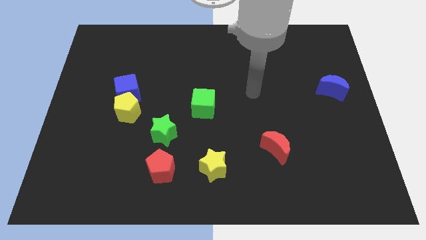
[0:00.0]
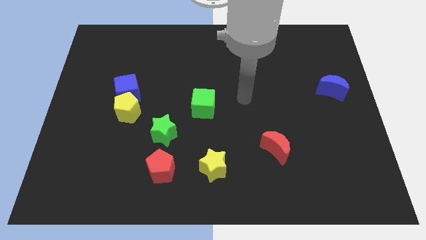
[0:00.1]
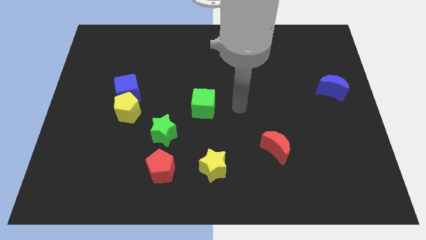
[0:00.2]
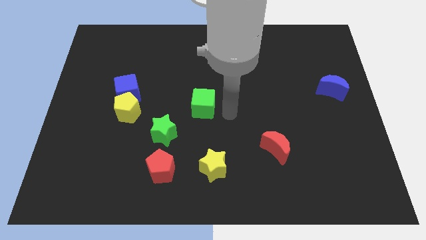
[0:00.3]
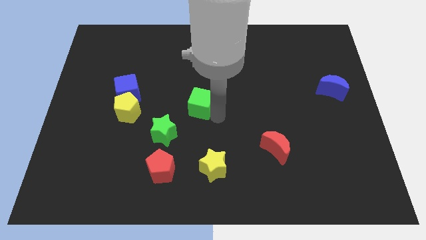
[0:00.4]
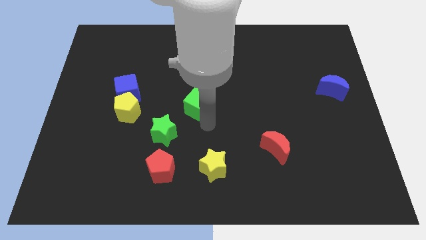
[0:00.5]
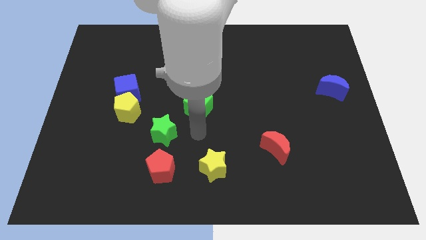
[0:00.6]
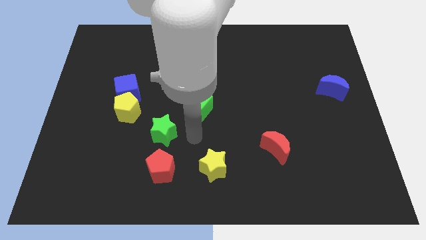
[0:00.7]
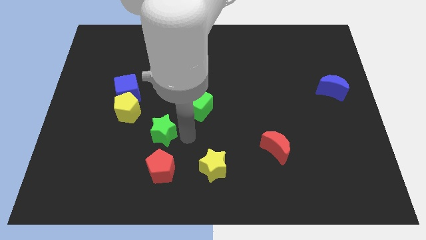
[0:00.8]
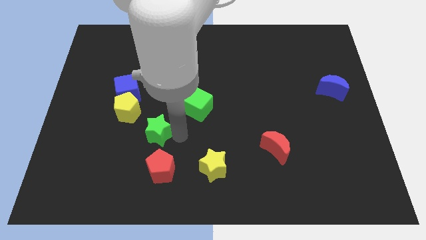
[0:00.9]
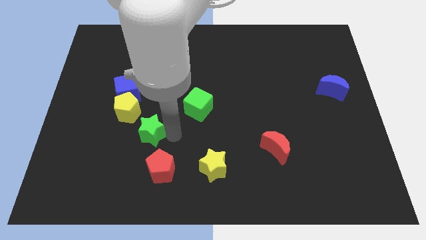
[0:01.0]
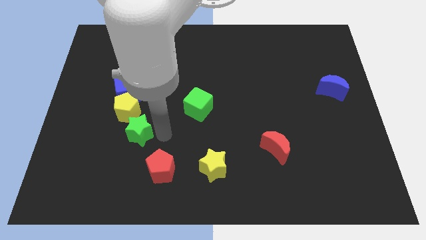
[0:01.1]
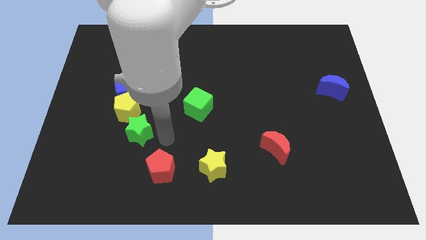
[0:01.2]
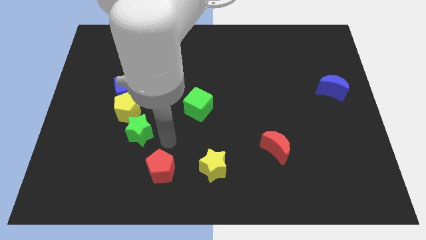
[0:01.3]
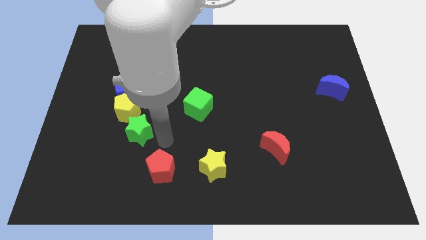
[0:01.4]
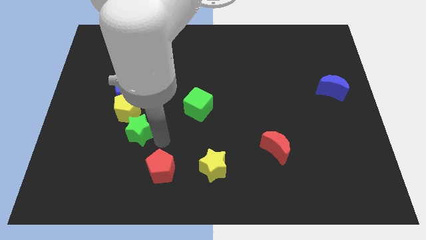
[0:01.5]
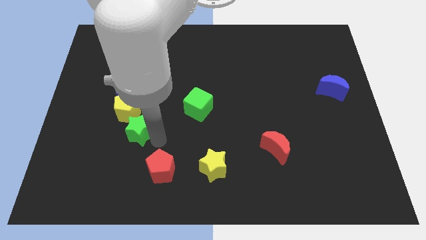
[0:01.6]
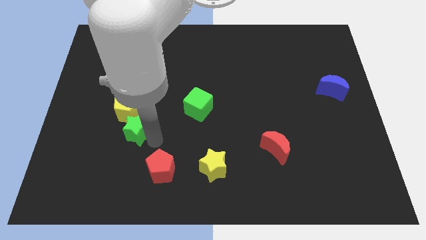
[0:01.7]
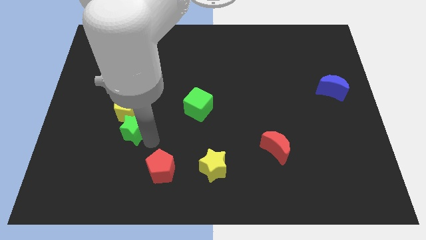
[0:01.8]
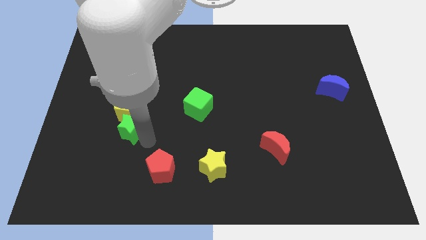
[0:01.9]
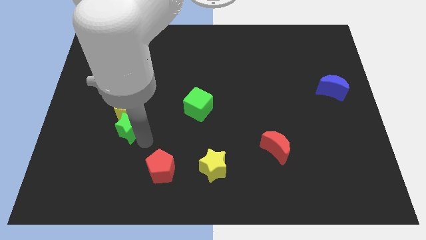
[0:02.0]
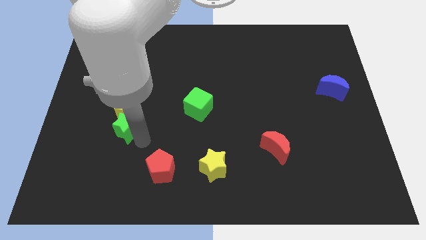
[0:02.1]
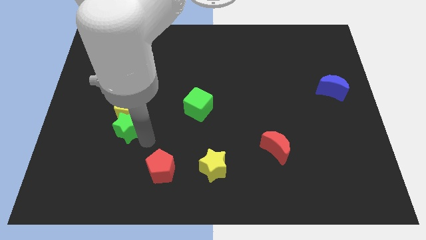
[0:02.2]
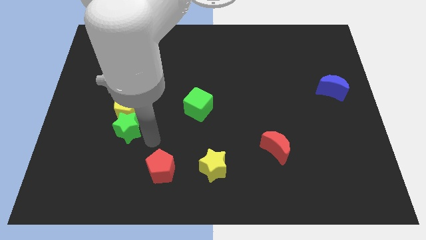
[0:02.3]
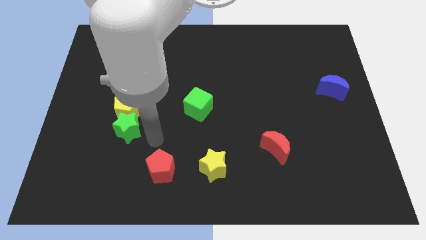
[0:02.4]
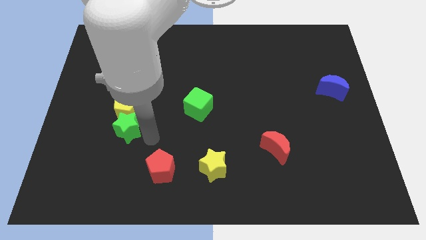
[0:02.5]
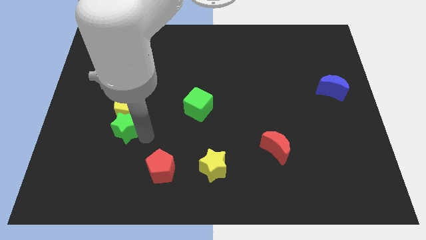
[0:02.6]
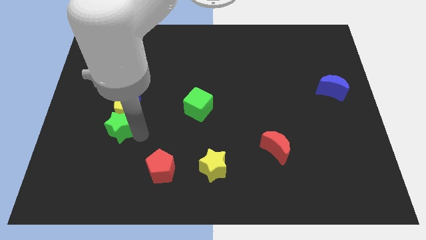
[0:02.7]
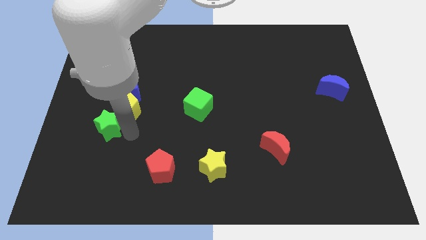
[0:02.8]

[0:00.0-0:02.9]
slide the green star diagonally upwards and to the left a little bit

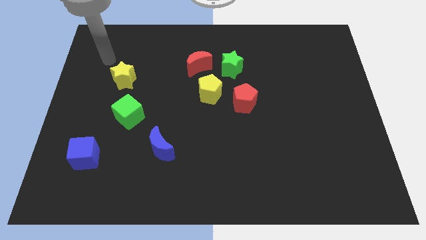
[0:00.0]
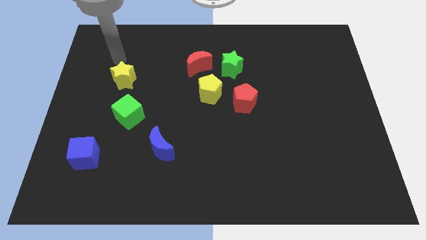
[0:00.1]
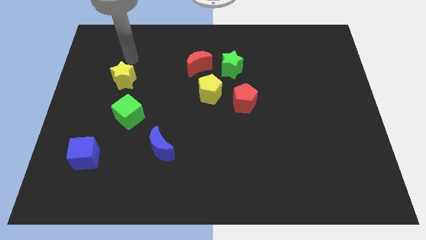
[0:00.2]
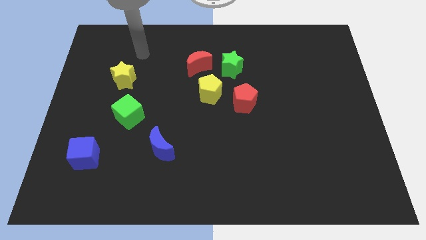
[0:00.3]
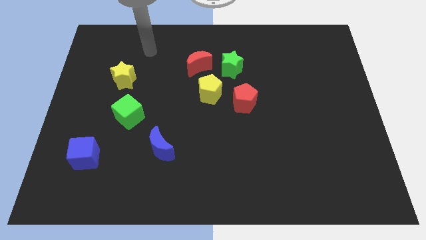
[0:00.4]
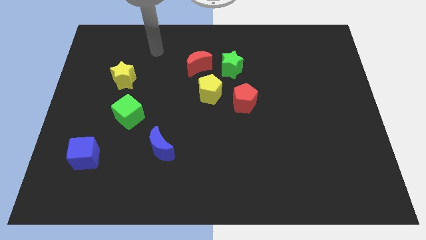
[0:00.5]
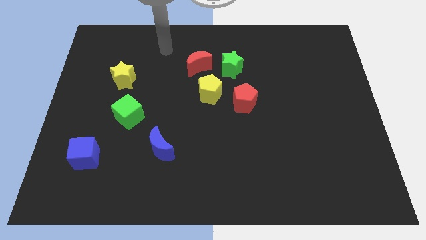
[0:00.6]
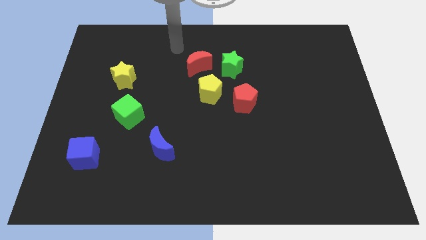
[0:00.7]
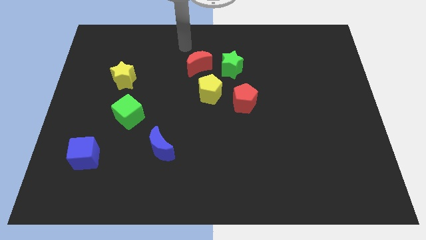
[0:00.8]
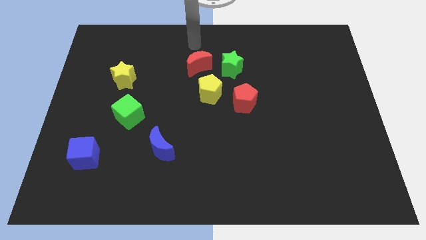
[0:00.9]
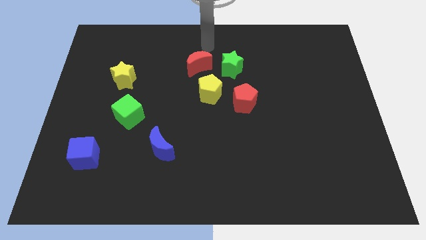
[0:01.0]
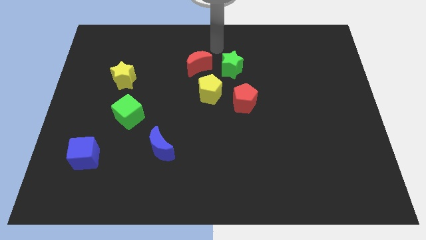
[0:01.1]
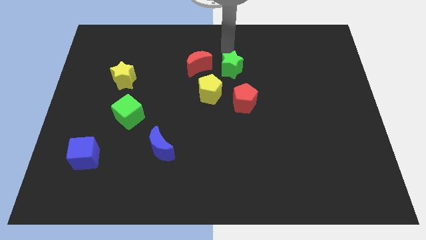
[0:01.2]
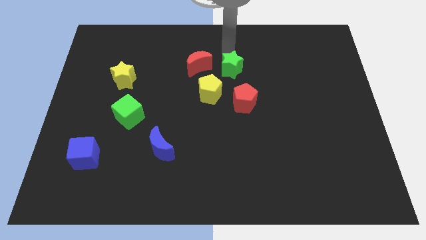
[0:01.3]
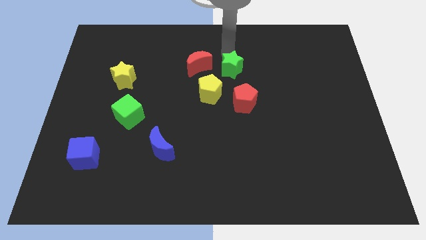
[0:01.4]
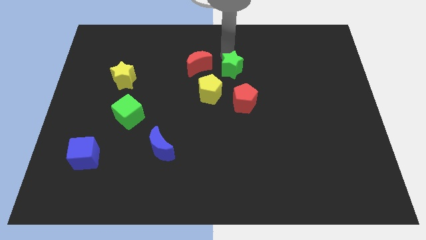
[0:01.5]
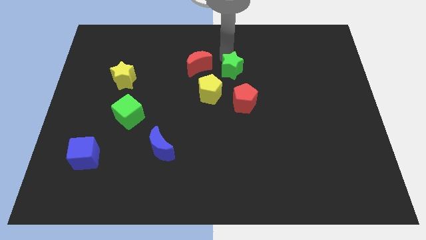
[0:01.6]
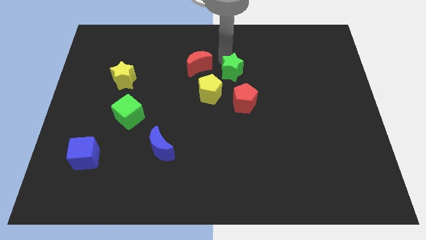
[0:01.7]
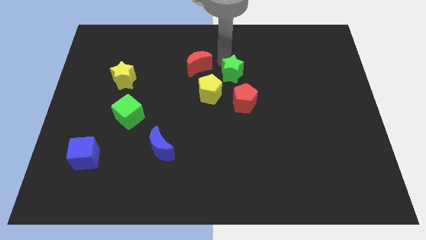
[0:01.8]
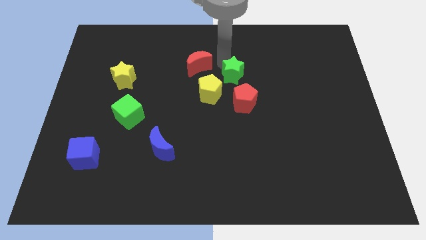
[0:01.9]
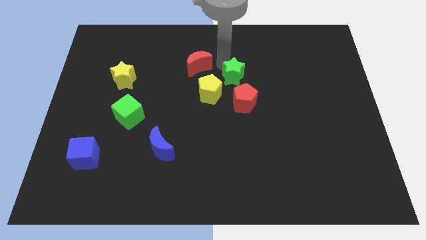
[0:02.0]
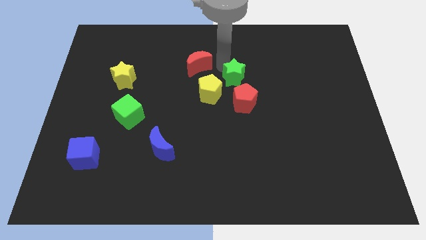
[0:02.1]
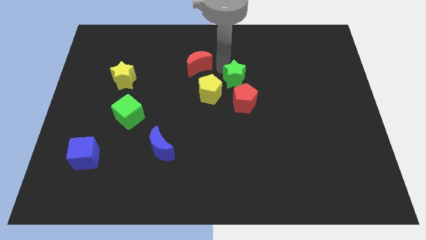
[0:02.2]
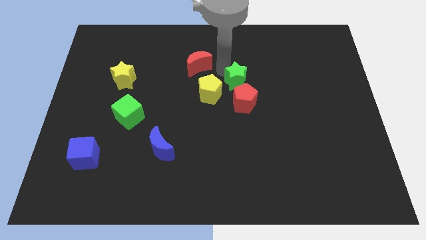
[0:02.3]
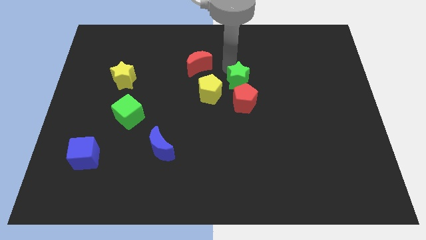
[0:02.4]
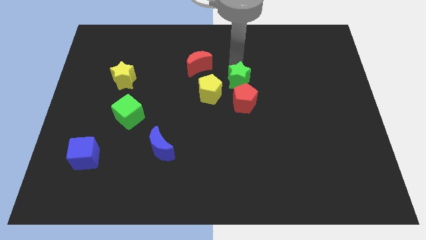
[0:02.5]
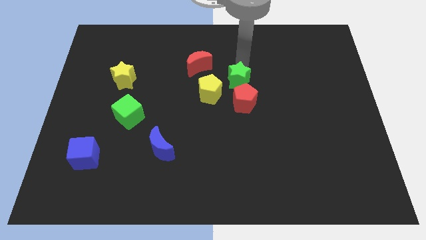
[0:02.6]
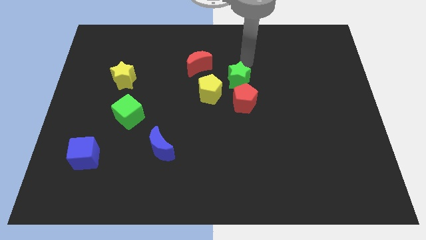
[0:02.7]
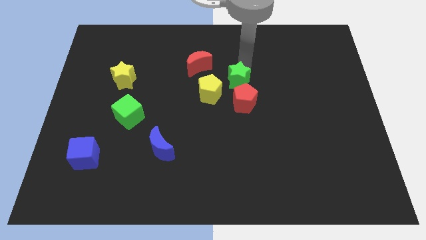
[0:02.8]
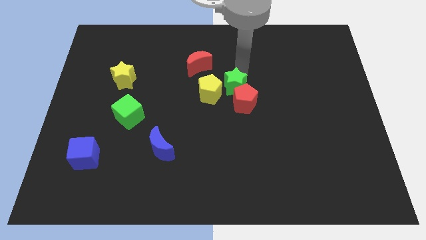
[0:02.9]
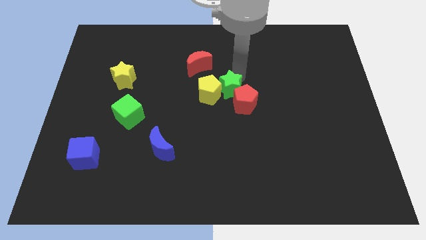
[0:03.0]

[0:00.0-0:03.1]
slide the green star a bit downwards

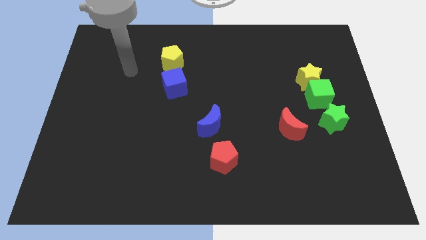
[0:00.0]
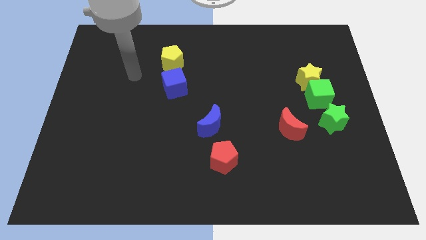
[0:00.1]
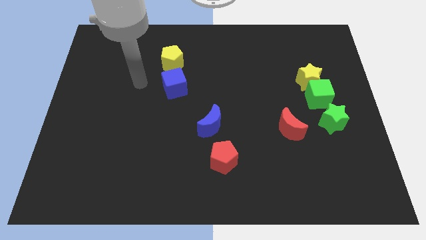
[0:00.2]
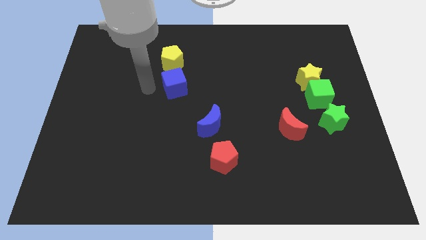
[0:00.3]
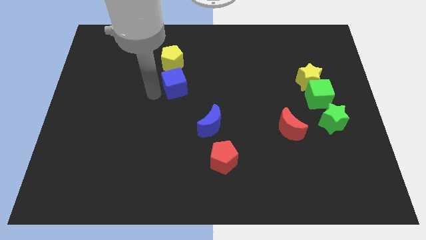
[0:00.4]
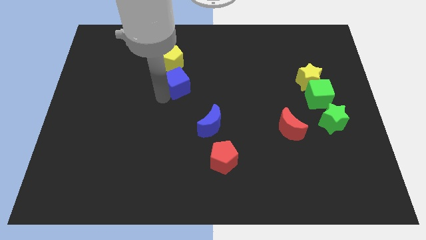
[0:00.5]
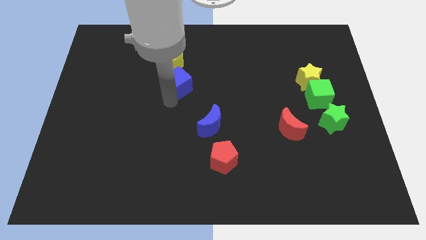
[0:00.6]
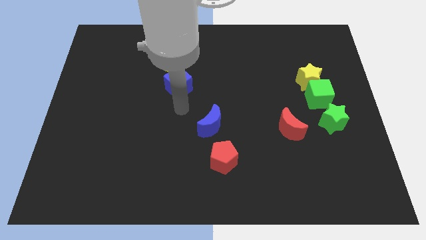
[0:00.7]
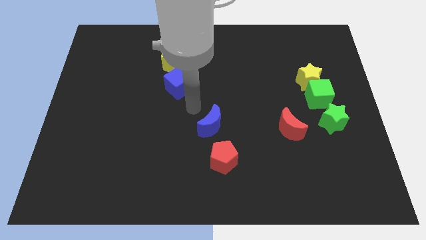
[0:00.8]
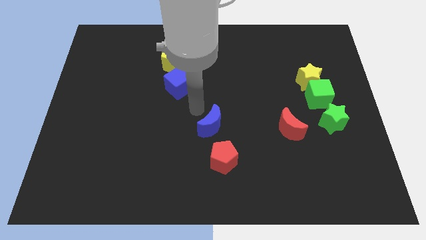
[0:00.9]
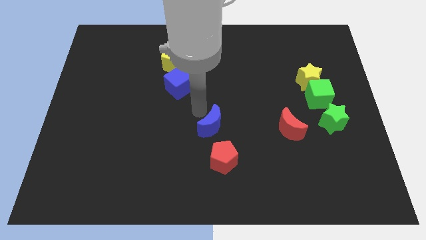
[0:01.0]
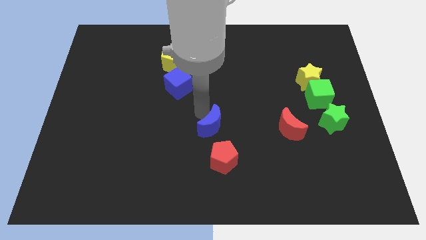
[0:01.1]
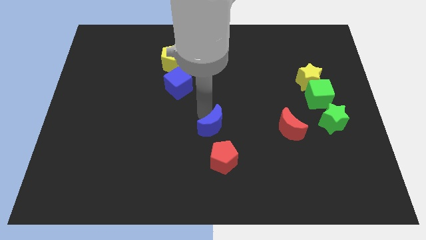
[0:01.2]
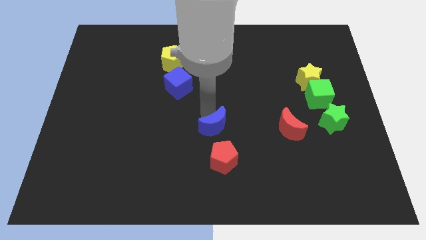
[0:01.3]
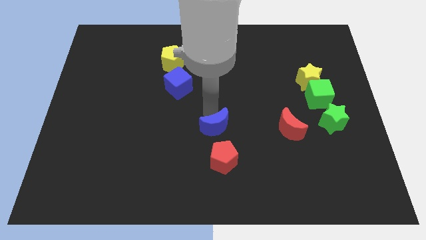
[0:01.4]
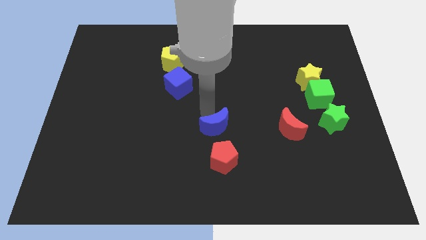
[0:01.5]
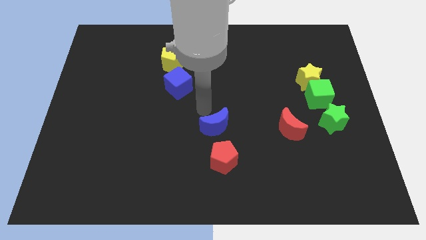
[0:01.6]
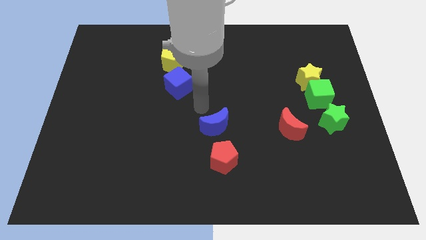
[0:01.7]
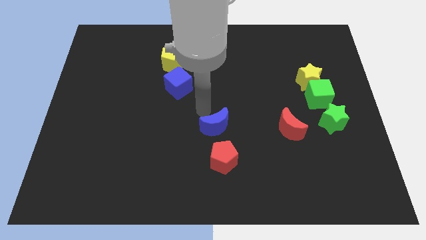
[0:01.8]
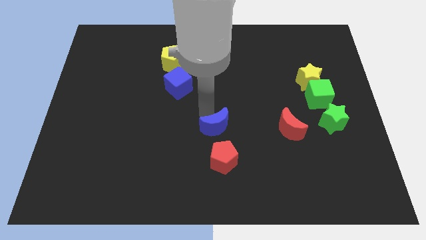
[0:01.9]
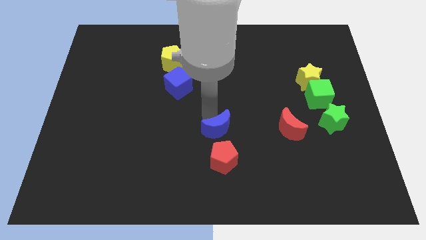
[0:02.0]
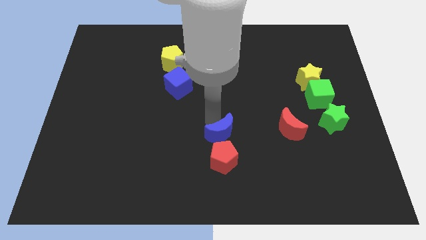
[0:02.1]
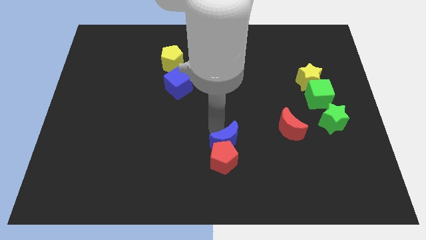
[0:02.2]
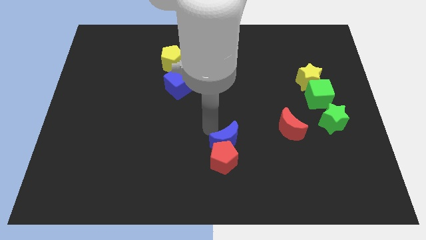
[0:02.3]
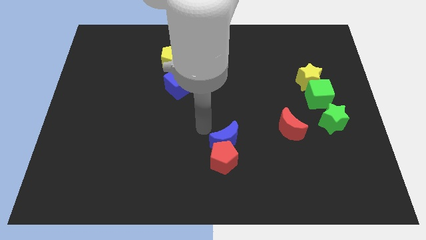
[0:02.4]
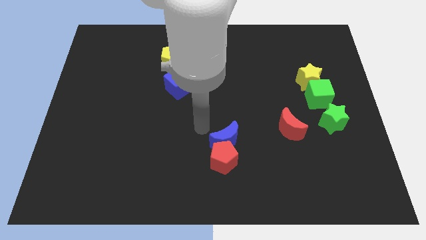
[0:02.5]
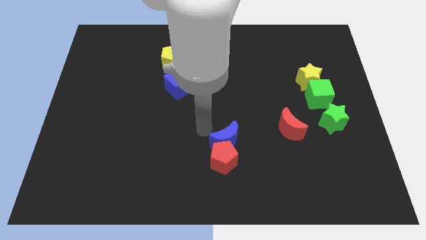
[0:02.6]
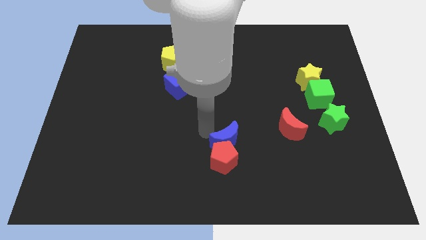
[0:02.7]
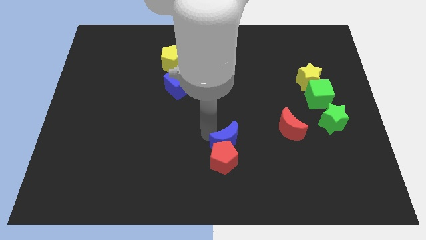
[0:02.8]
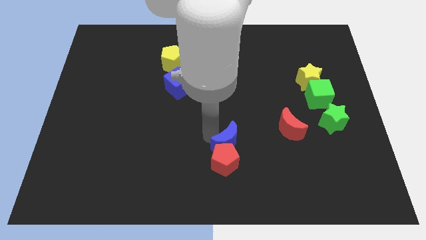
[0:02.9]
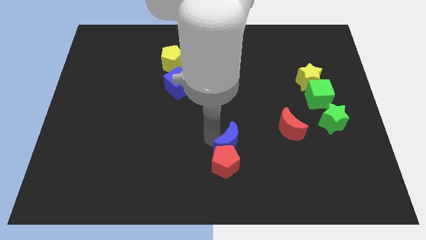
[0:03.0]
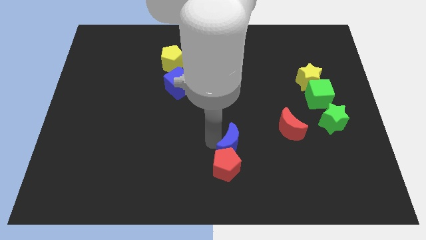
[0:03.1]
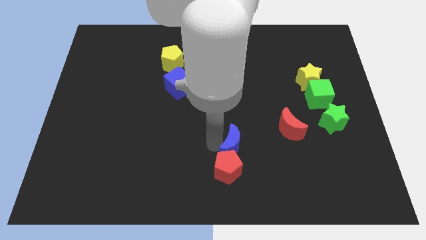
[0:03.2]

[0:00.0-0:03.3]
slide the blue moon a little bit down and to the right diagonally
